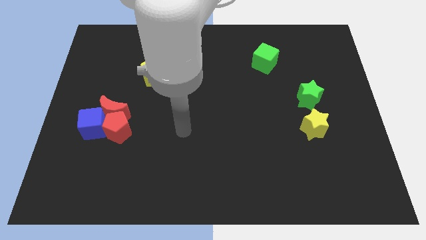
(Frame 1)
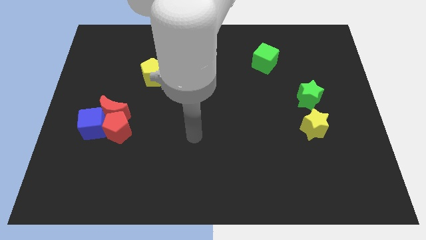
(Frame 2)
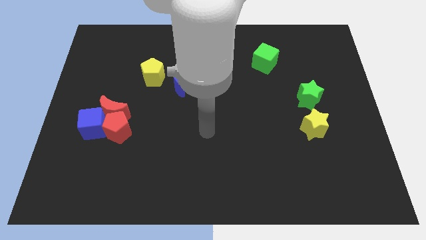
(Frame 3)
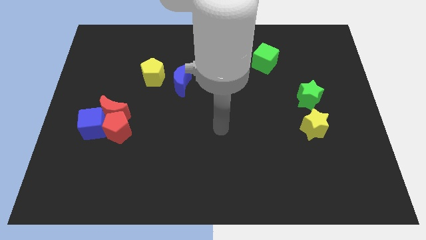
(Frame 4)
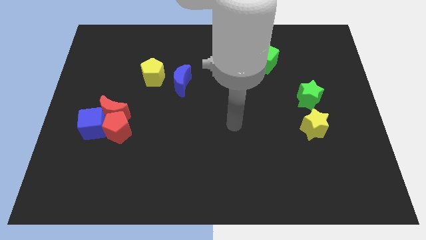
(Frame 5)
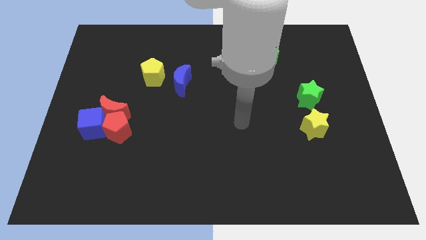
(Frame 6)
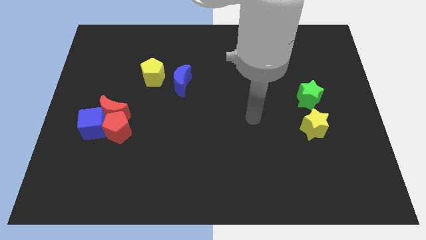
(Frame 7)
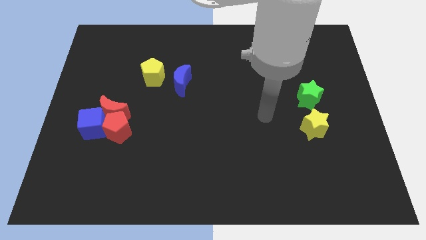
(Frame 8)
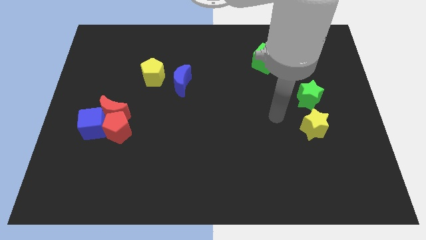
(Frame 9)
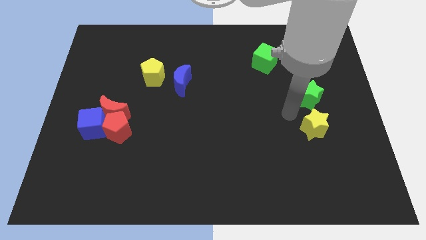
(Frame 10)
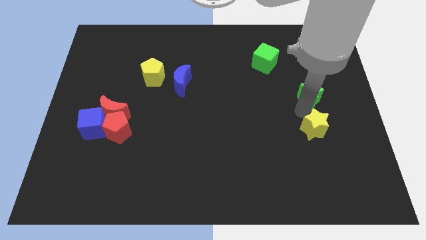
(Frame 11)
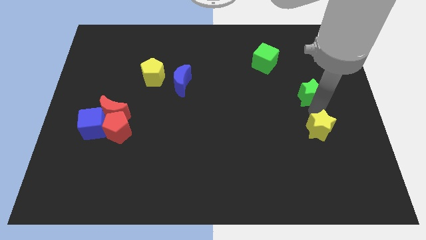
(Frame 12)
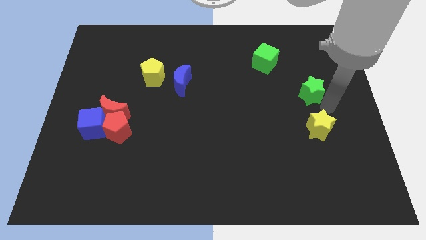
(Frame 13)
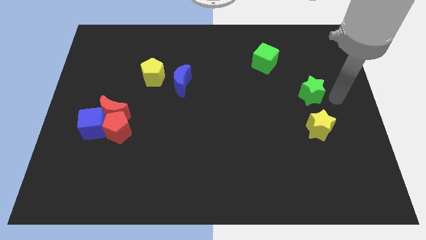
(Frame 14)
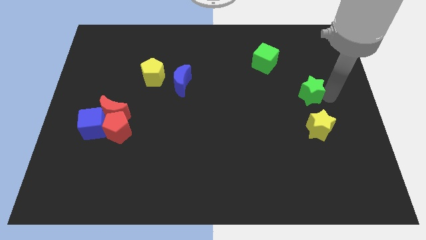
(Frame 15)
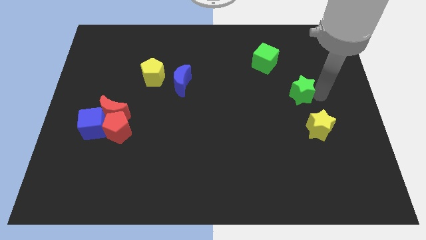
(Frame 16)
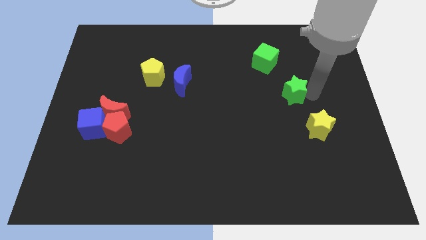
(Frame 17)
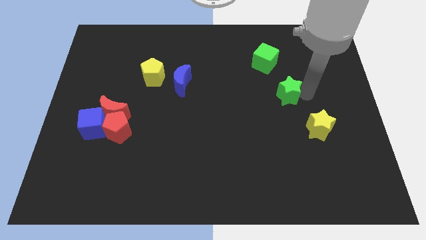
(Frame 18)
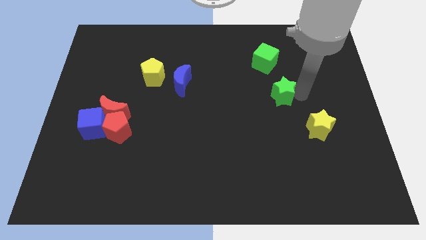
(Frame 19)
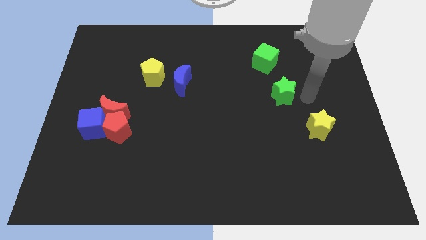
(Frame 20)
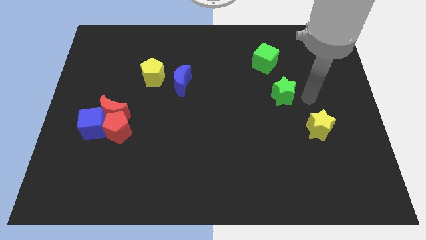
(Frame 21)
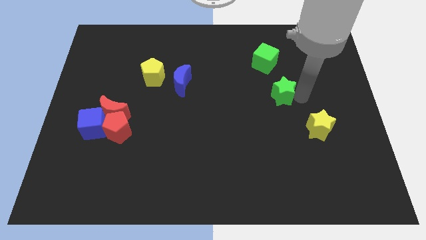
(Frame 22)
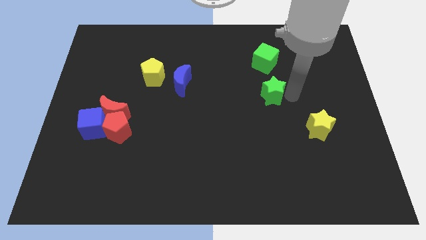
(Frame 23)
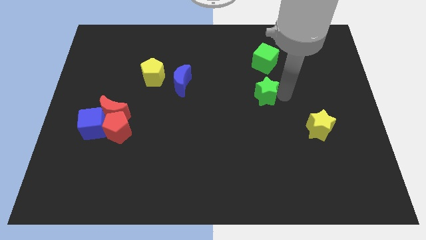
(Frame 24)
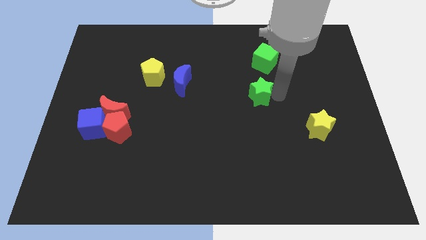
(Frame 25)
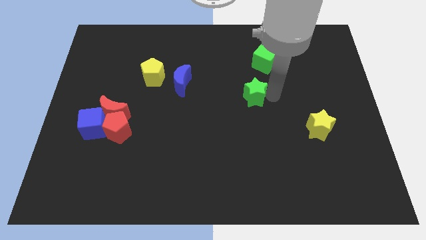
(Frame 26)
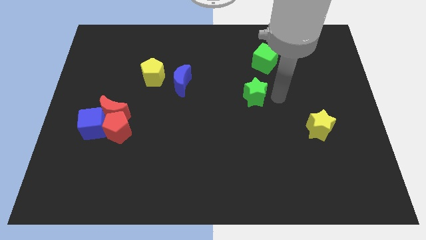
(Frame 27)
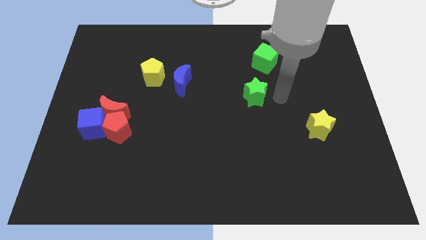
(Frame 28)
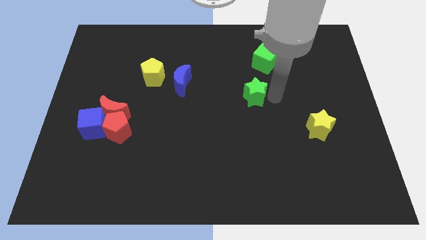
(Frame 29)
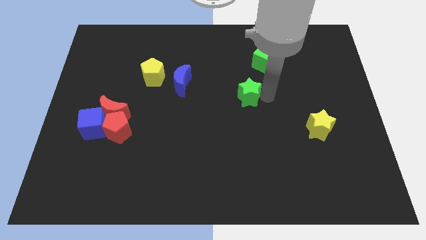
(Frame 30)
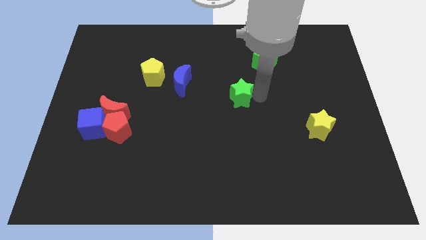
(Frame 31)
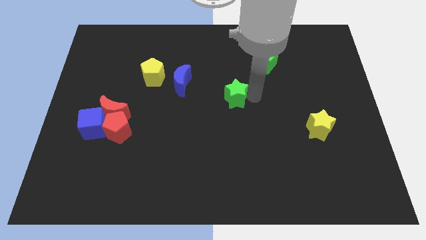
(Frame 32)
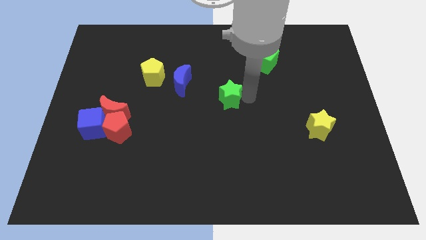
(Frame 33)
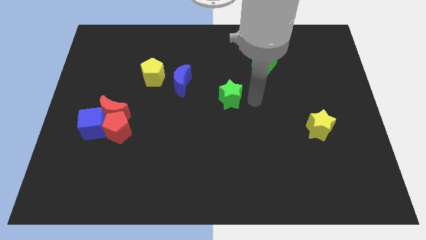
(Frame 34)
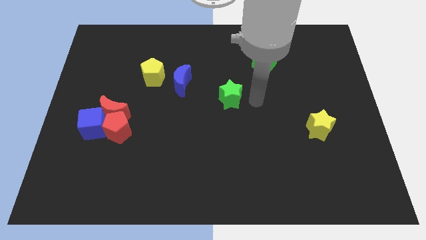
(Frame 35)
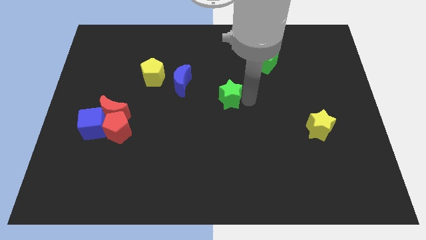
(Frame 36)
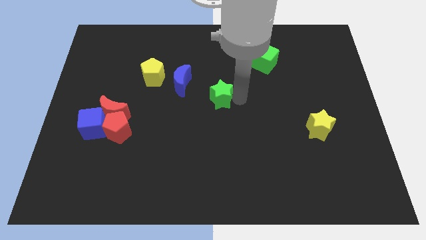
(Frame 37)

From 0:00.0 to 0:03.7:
move the green star to the left

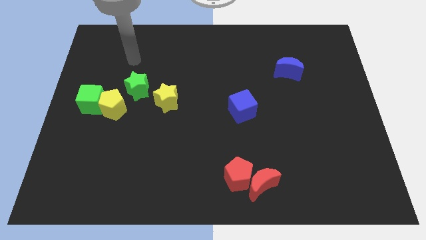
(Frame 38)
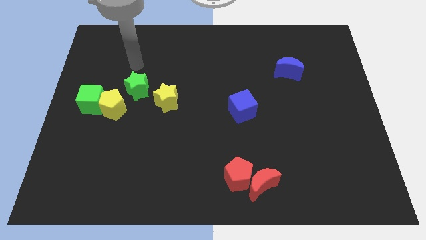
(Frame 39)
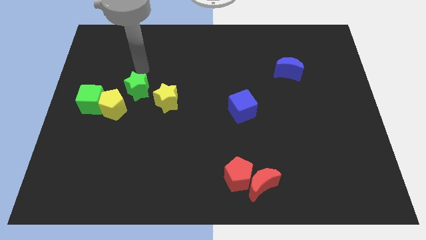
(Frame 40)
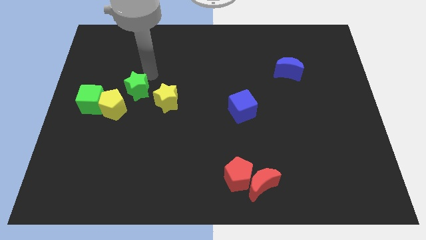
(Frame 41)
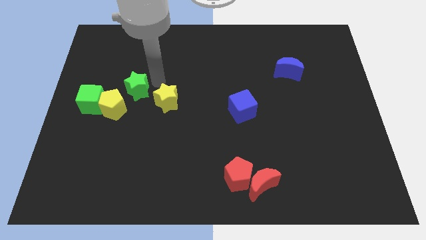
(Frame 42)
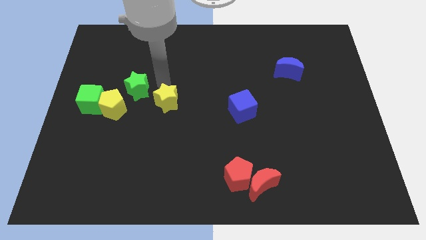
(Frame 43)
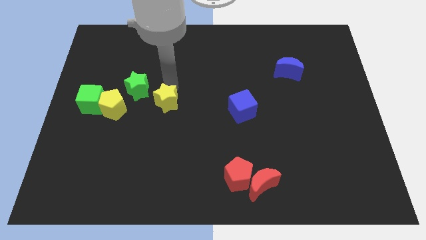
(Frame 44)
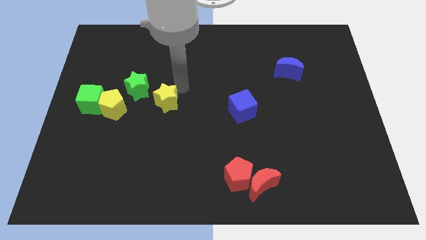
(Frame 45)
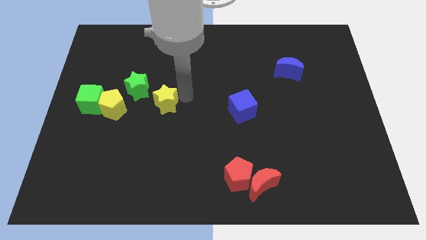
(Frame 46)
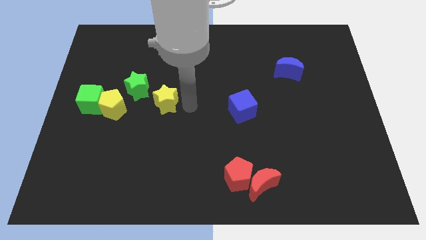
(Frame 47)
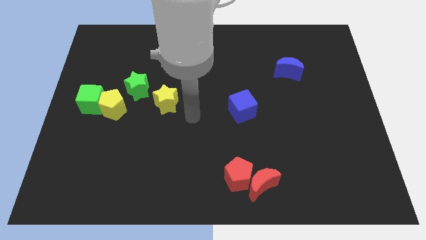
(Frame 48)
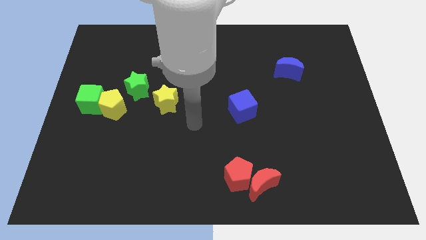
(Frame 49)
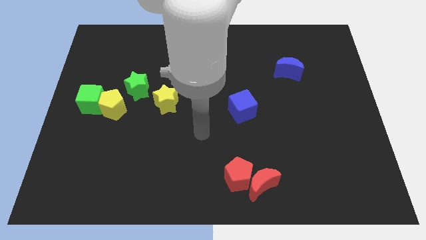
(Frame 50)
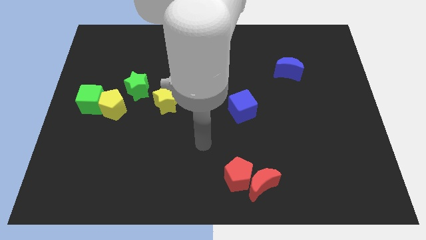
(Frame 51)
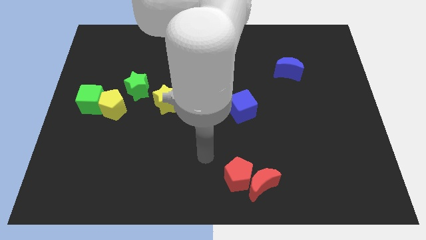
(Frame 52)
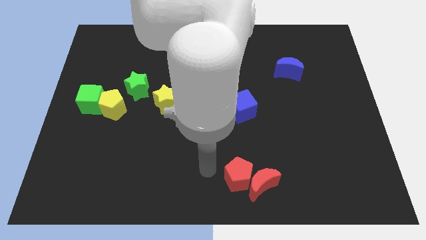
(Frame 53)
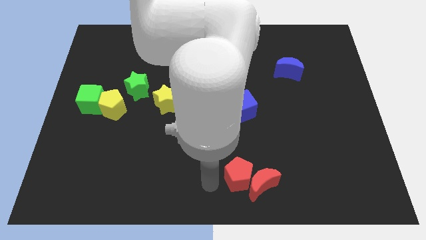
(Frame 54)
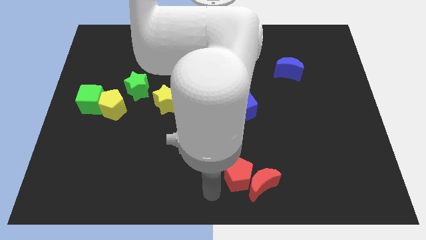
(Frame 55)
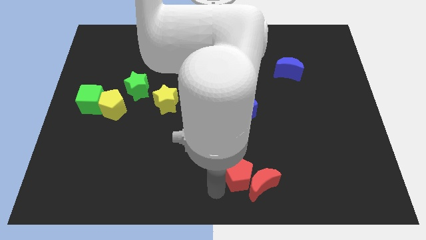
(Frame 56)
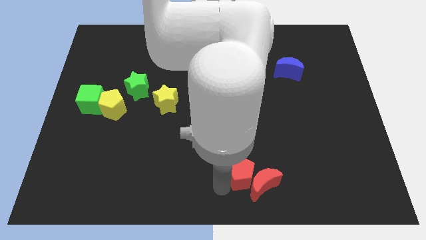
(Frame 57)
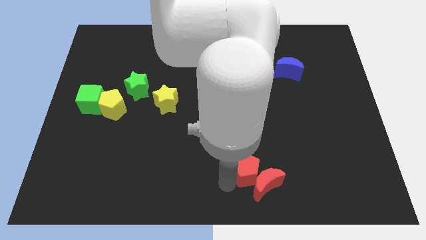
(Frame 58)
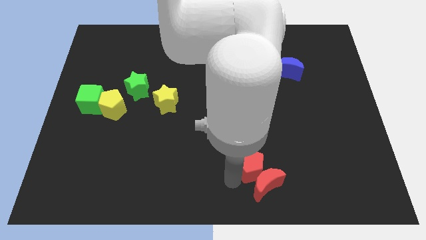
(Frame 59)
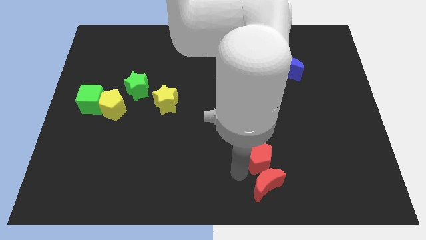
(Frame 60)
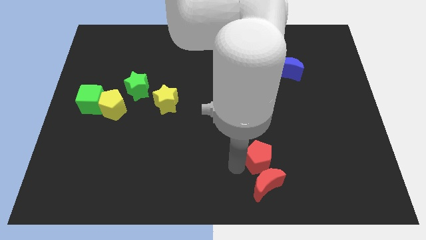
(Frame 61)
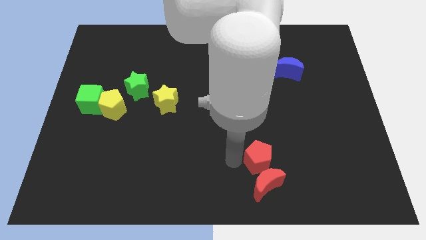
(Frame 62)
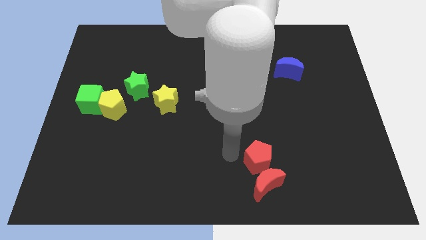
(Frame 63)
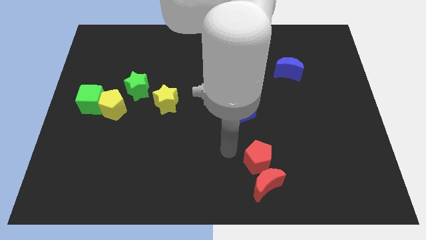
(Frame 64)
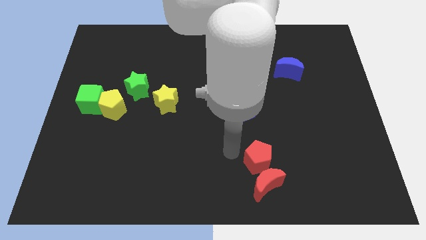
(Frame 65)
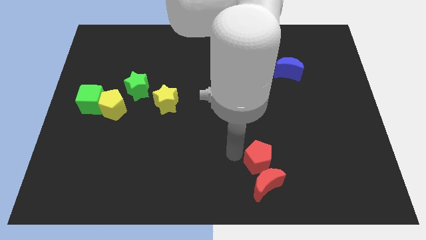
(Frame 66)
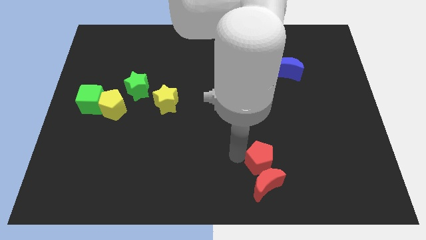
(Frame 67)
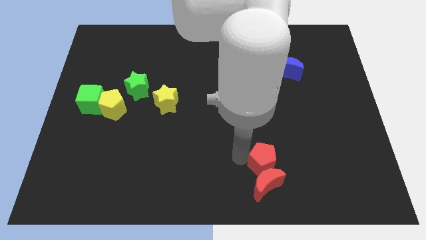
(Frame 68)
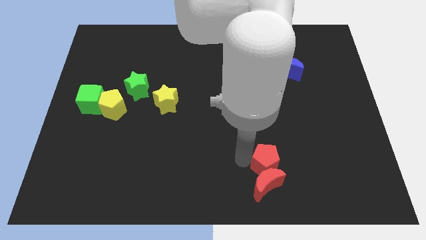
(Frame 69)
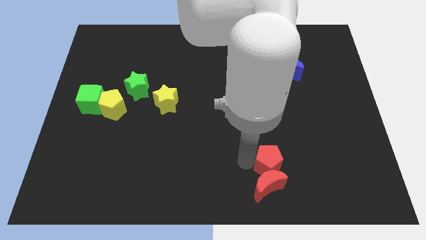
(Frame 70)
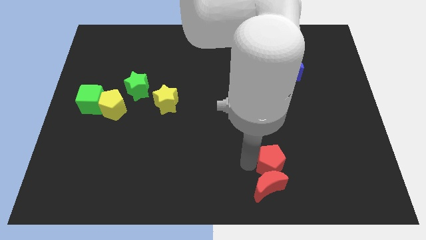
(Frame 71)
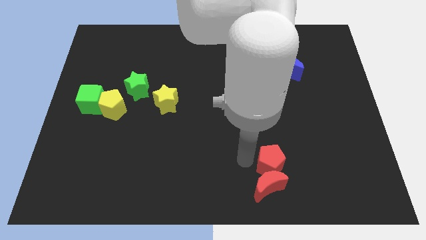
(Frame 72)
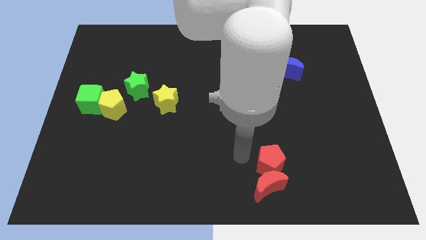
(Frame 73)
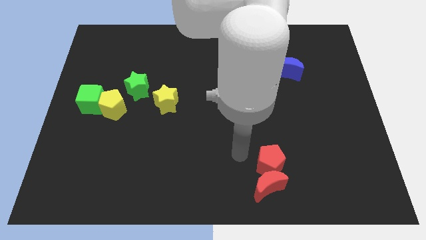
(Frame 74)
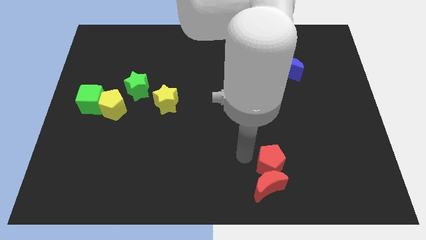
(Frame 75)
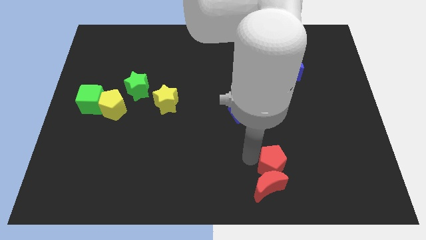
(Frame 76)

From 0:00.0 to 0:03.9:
slide the red pentagon to the right a bit

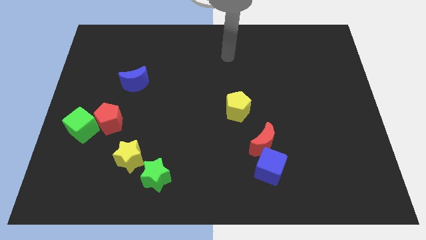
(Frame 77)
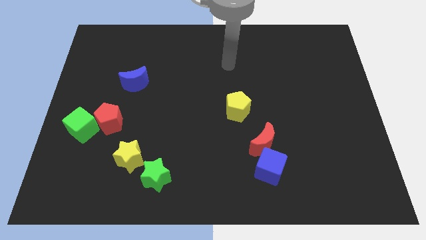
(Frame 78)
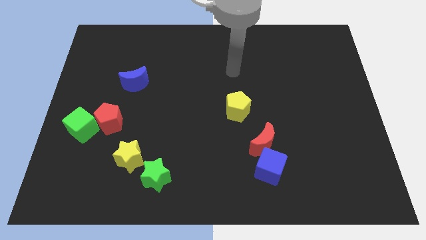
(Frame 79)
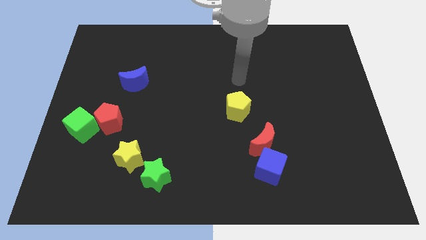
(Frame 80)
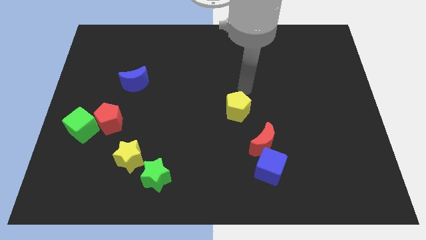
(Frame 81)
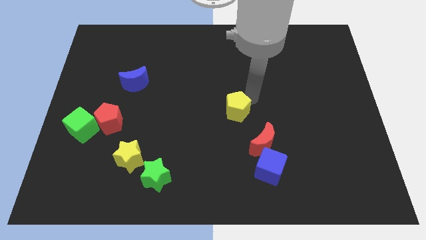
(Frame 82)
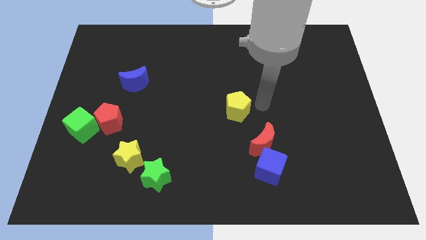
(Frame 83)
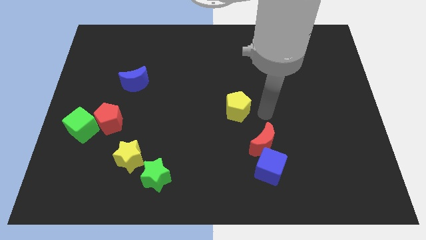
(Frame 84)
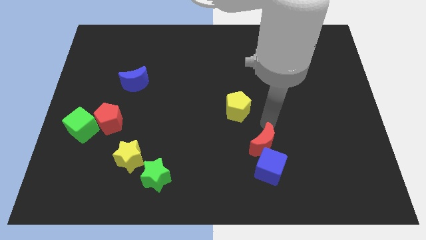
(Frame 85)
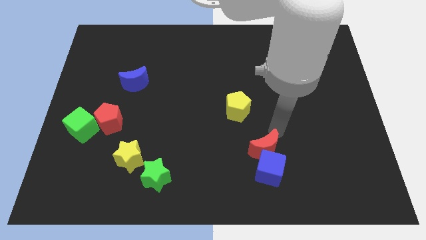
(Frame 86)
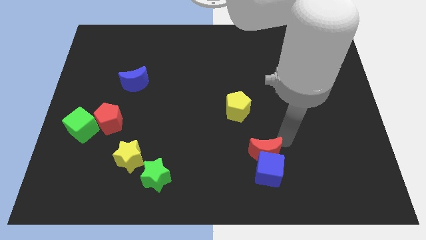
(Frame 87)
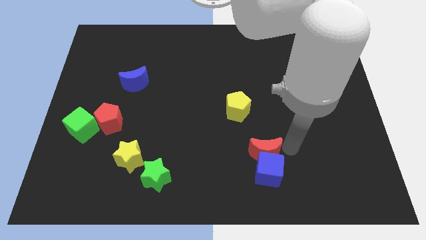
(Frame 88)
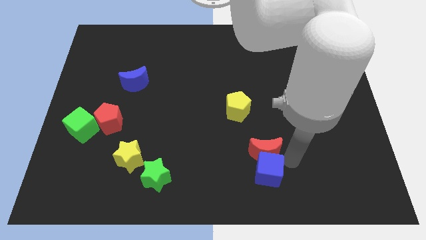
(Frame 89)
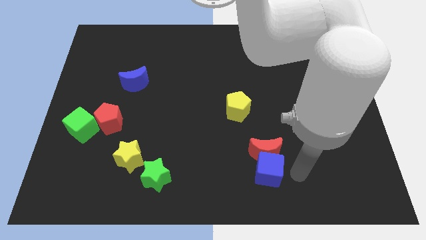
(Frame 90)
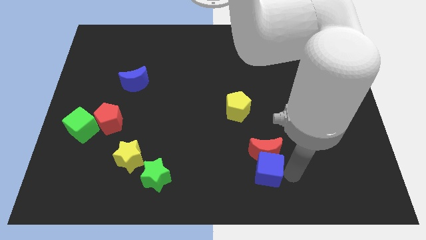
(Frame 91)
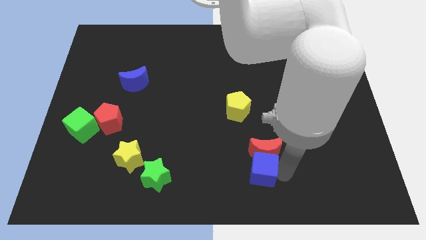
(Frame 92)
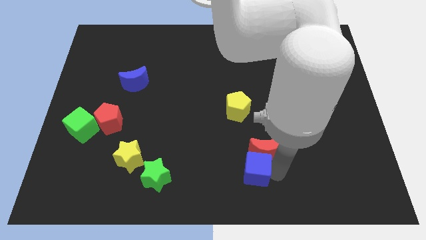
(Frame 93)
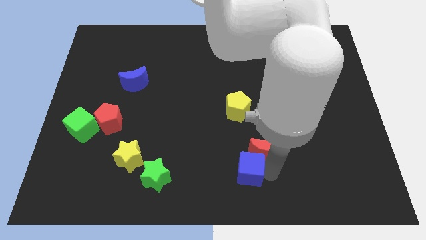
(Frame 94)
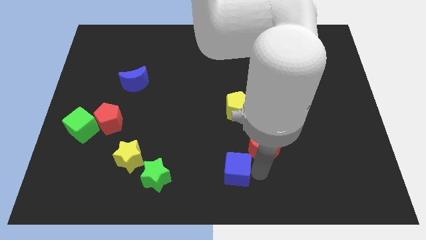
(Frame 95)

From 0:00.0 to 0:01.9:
move the blue cube to the left somewhat
